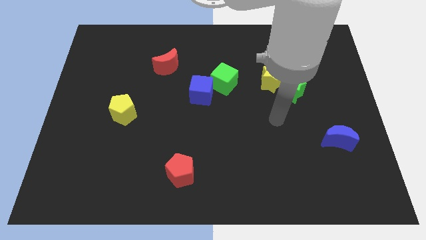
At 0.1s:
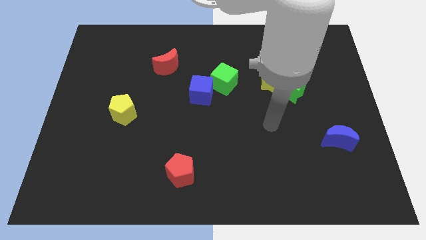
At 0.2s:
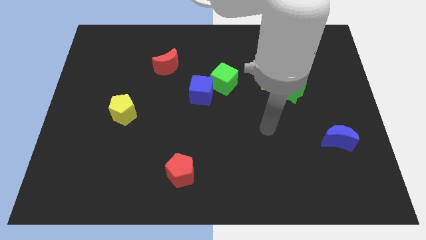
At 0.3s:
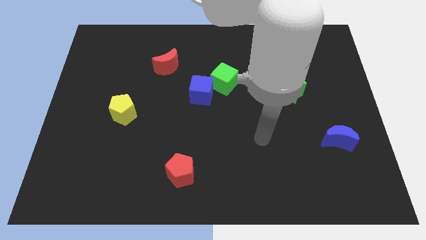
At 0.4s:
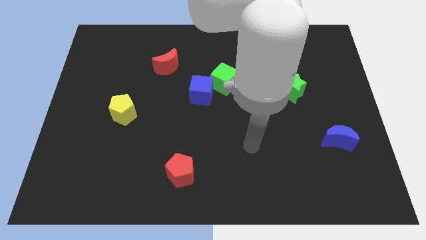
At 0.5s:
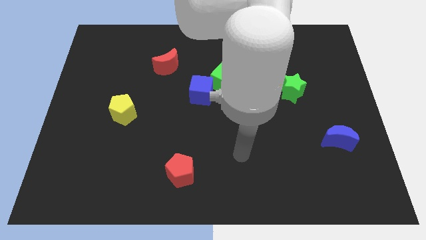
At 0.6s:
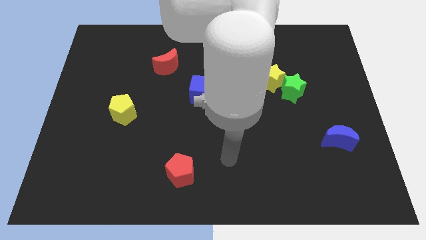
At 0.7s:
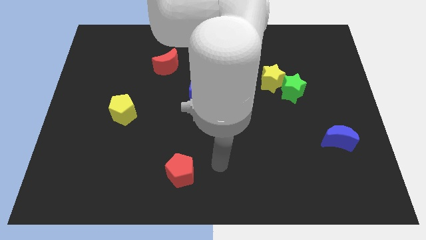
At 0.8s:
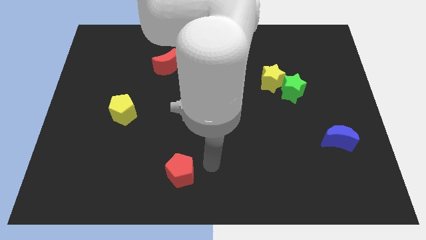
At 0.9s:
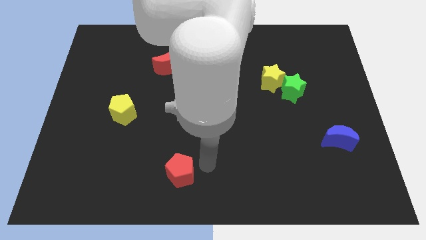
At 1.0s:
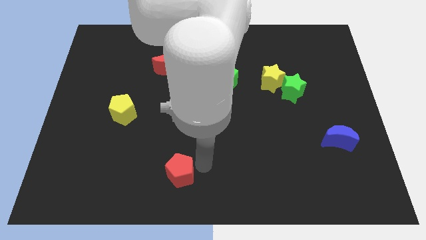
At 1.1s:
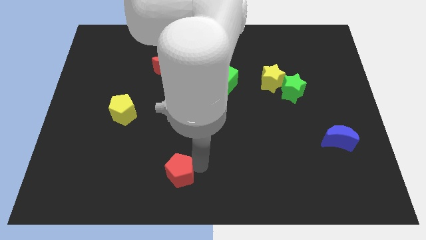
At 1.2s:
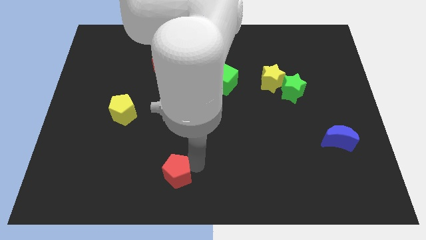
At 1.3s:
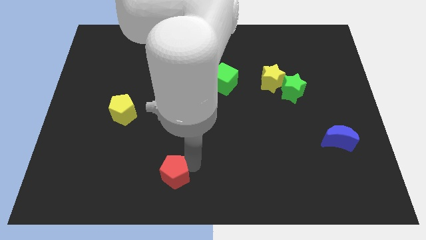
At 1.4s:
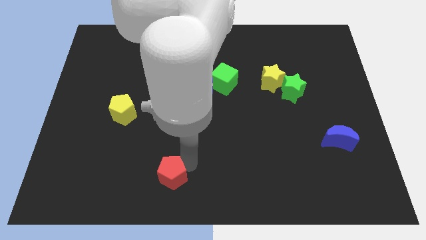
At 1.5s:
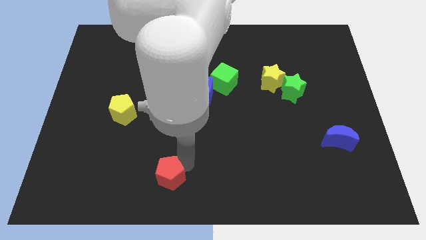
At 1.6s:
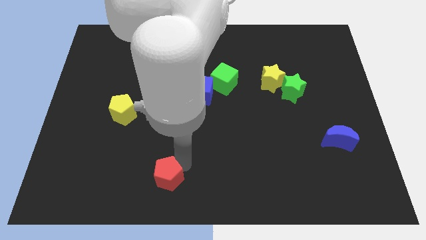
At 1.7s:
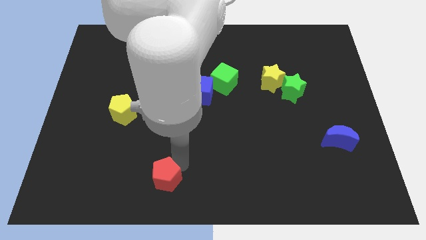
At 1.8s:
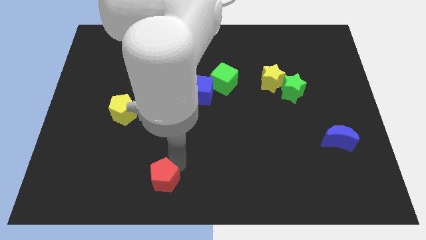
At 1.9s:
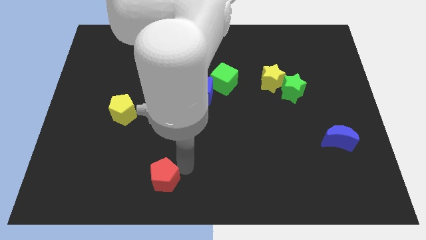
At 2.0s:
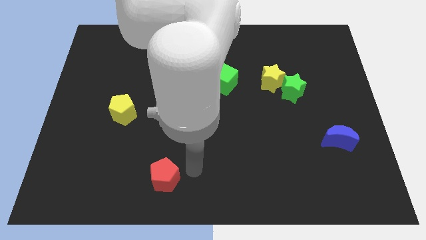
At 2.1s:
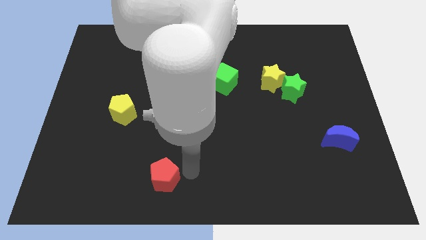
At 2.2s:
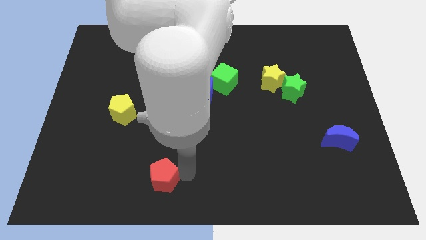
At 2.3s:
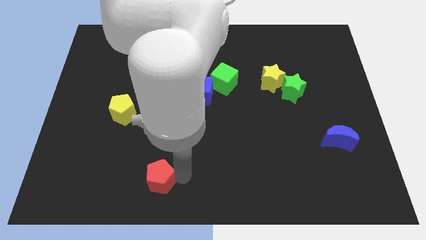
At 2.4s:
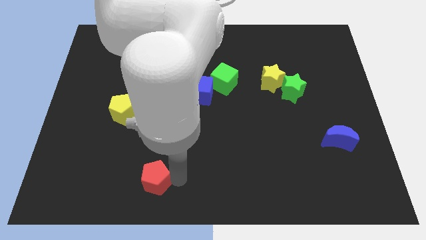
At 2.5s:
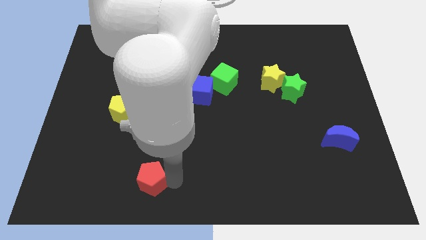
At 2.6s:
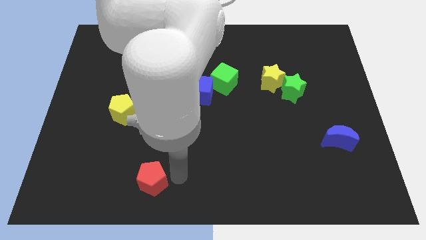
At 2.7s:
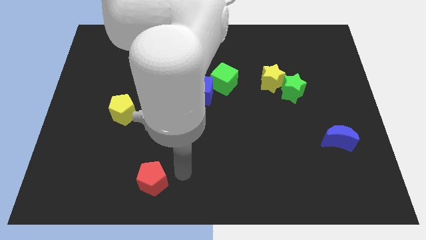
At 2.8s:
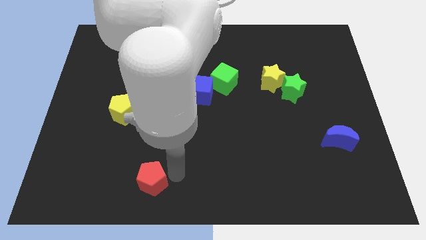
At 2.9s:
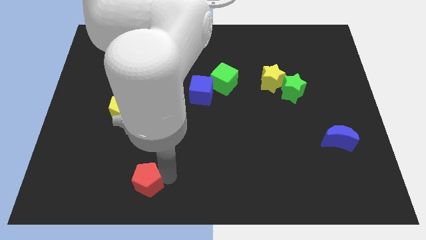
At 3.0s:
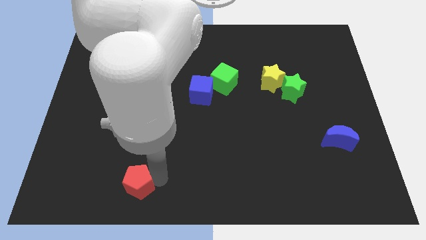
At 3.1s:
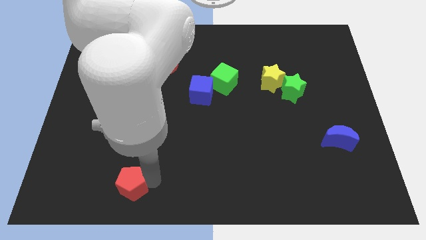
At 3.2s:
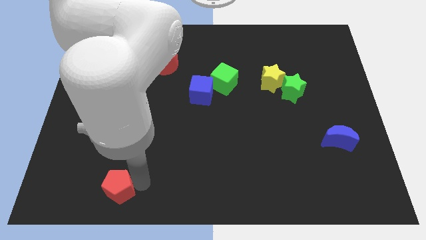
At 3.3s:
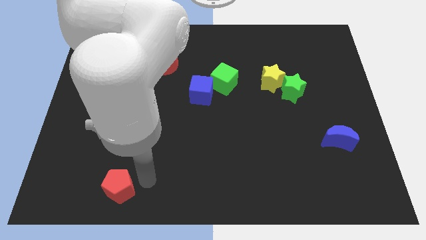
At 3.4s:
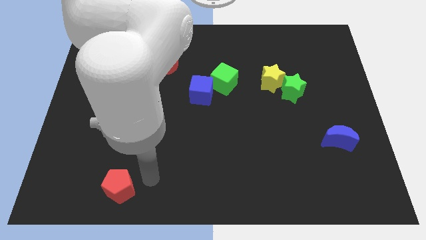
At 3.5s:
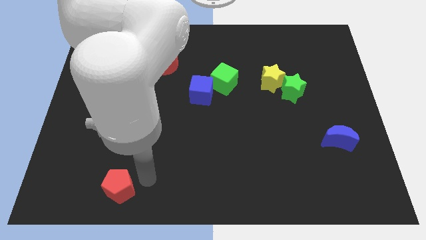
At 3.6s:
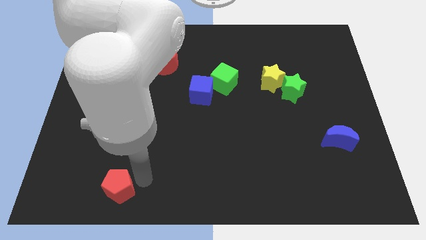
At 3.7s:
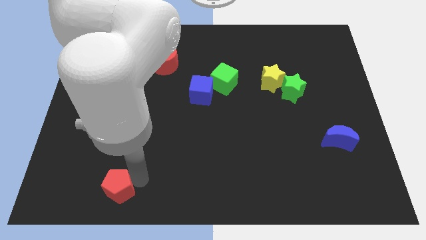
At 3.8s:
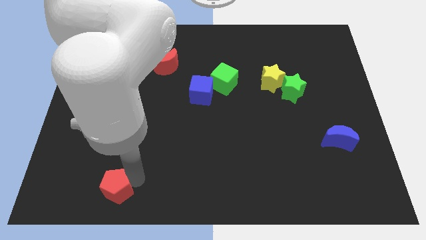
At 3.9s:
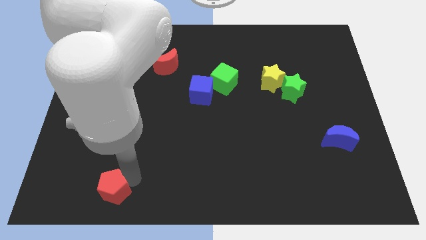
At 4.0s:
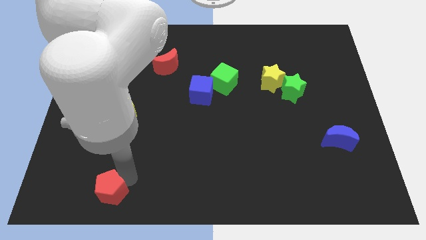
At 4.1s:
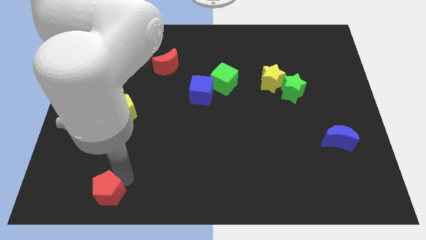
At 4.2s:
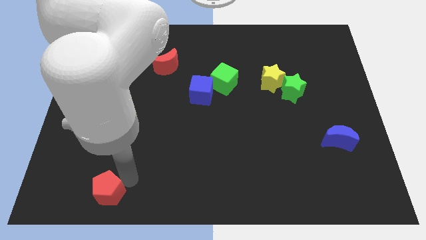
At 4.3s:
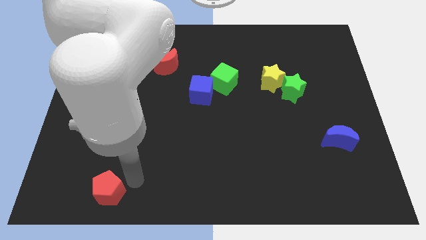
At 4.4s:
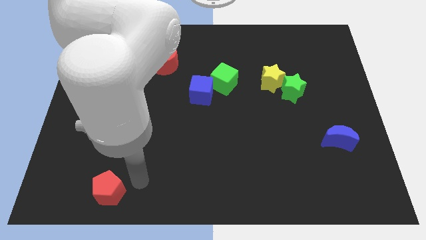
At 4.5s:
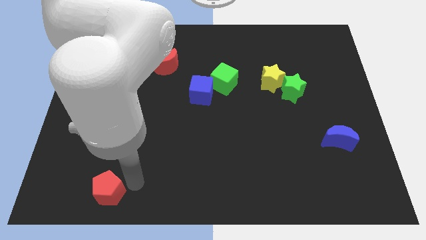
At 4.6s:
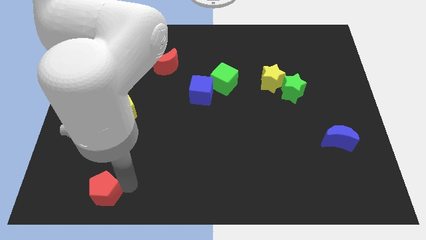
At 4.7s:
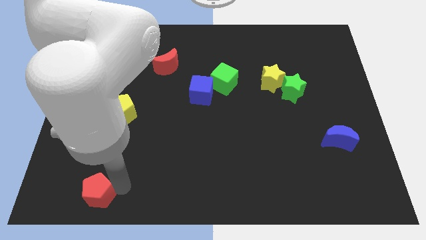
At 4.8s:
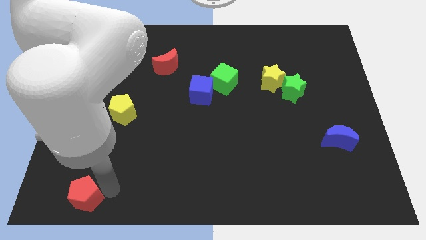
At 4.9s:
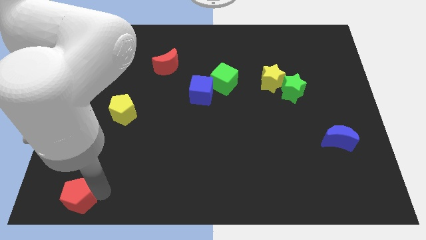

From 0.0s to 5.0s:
put the red pentagon to the bottom left corner

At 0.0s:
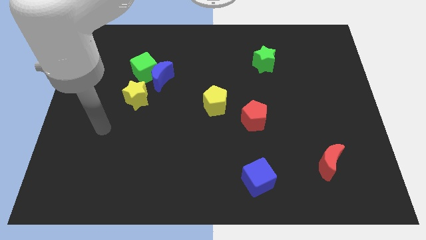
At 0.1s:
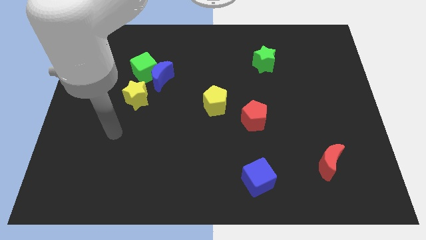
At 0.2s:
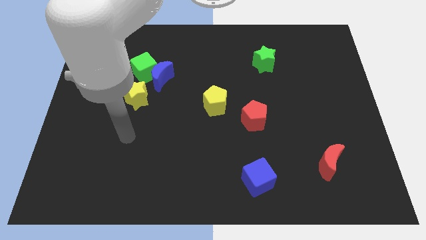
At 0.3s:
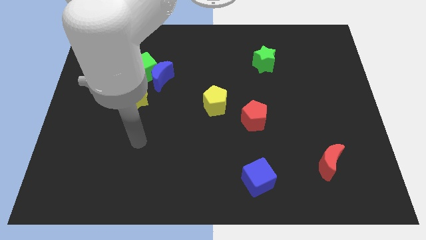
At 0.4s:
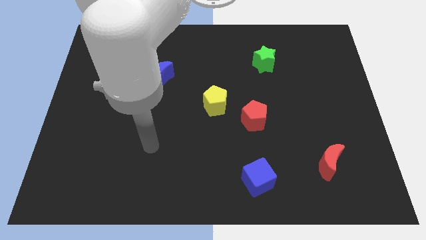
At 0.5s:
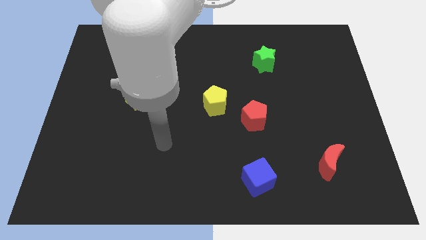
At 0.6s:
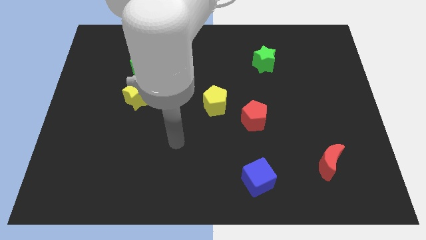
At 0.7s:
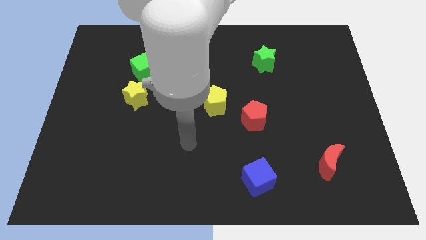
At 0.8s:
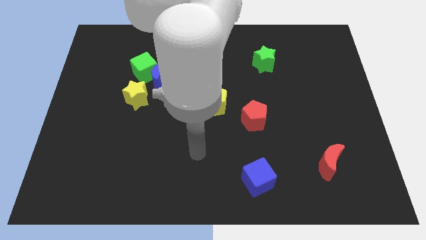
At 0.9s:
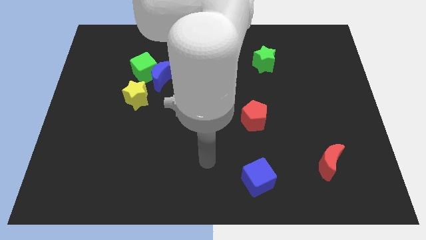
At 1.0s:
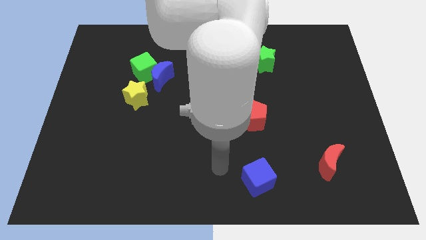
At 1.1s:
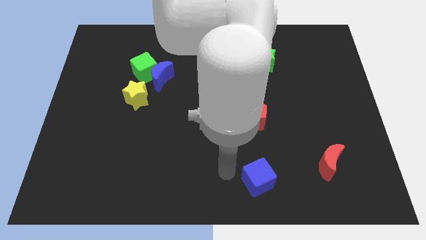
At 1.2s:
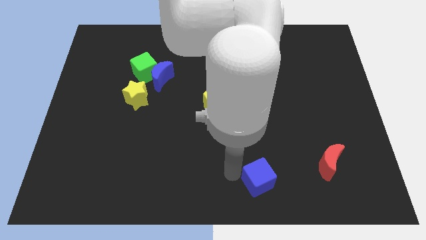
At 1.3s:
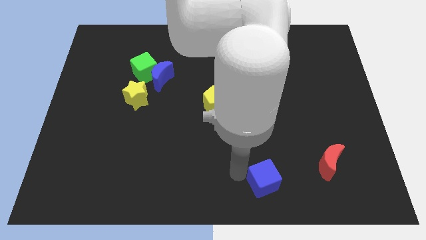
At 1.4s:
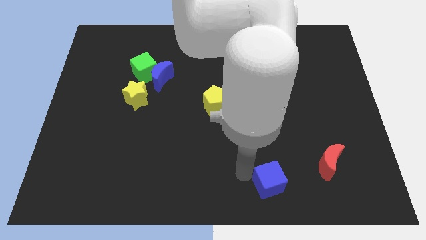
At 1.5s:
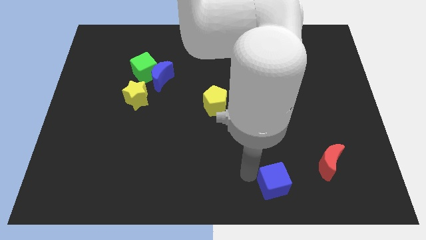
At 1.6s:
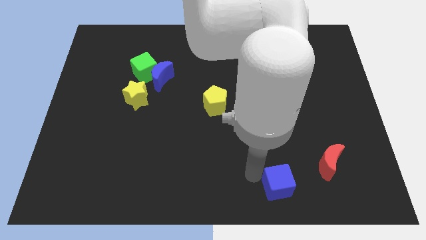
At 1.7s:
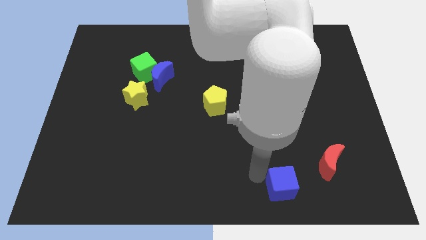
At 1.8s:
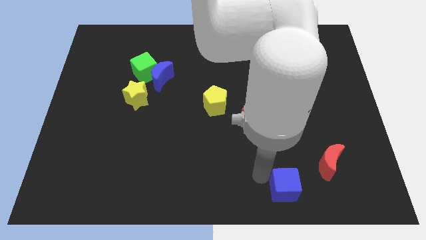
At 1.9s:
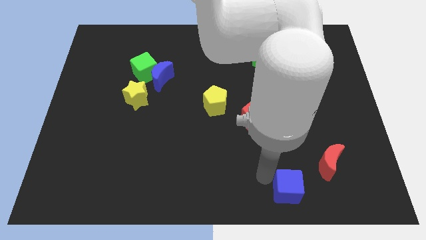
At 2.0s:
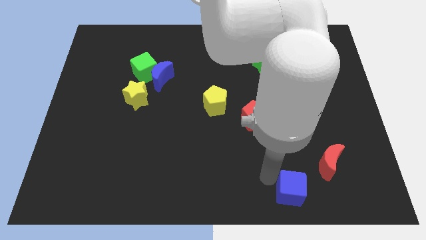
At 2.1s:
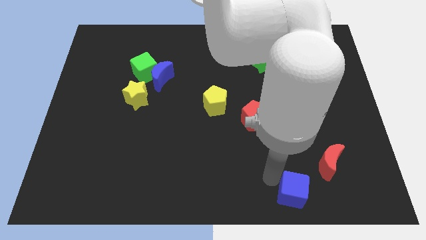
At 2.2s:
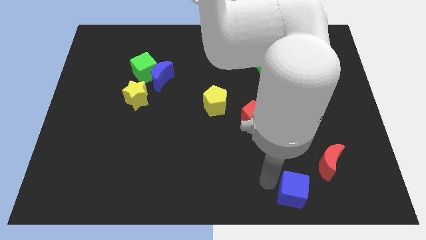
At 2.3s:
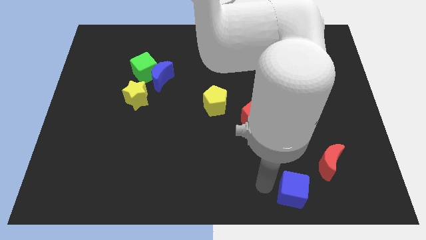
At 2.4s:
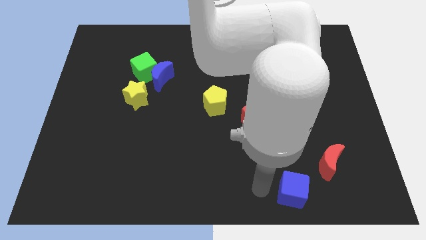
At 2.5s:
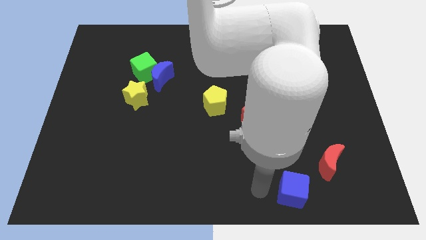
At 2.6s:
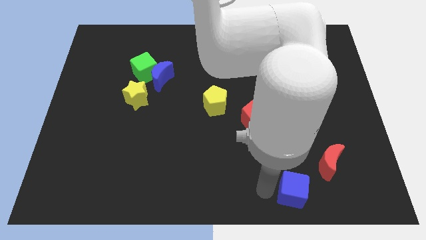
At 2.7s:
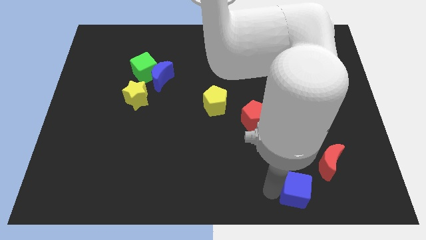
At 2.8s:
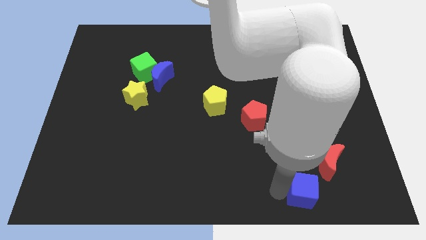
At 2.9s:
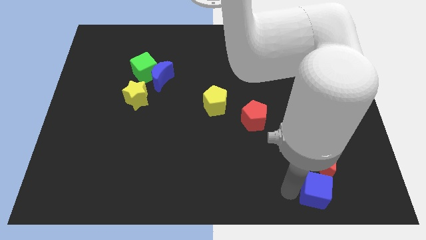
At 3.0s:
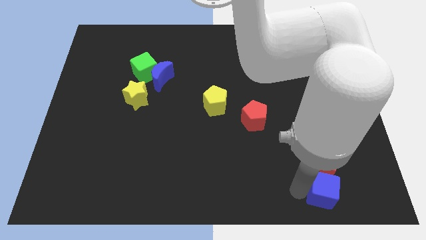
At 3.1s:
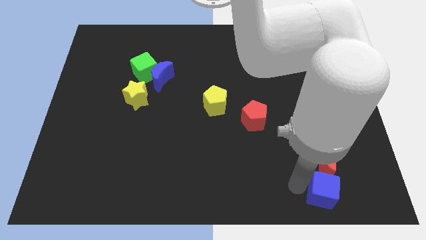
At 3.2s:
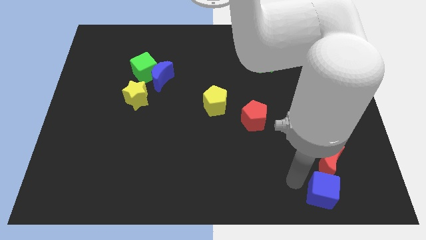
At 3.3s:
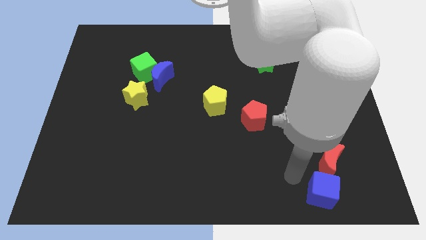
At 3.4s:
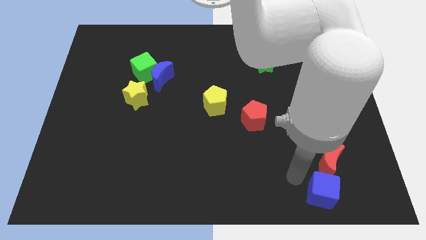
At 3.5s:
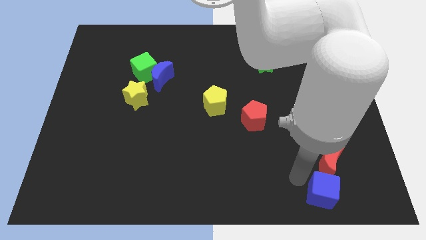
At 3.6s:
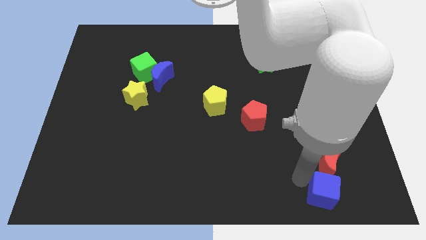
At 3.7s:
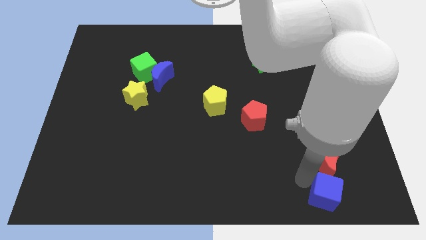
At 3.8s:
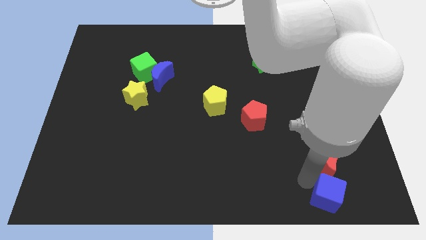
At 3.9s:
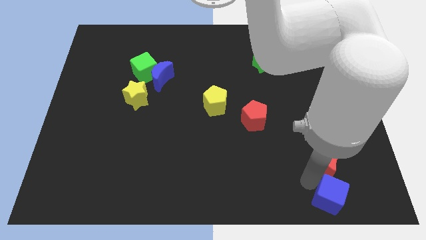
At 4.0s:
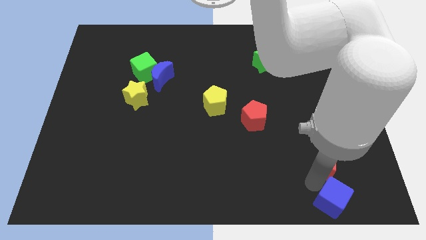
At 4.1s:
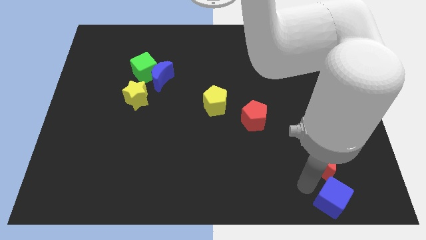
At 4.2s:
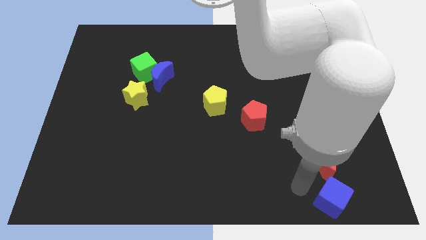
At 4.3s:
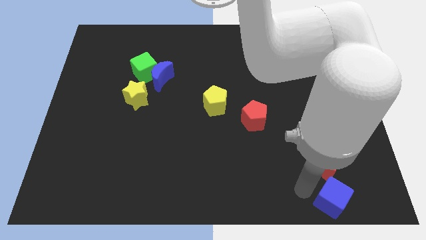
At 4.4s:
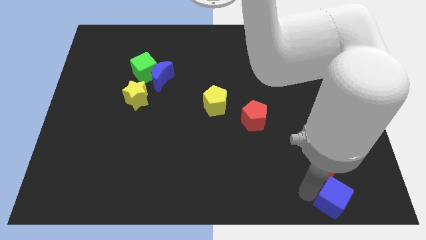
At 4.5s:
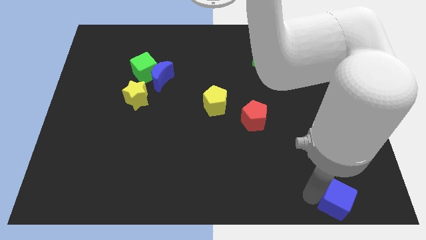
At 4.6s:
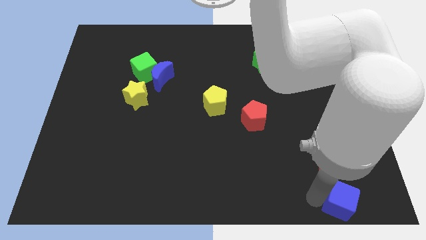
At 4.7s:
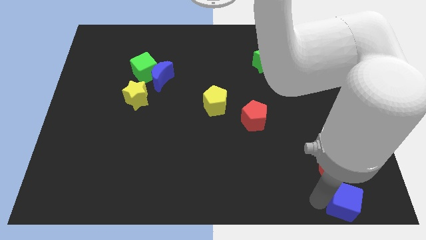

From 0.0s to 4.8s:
move the blue cube to the bottom right corner
